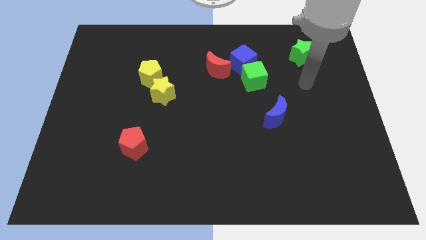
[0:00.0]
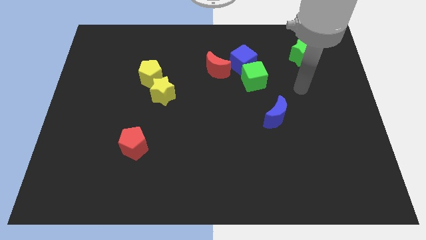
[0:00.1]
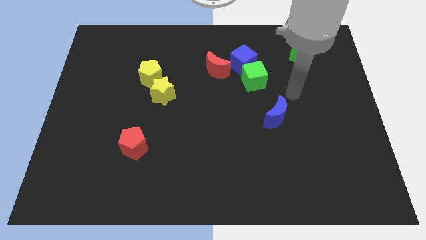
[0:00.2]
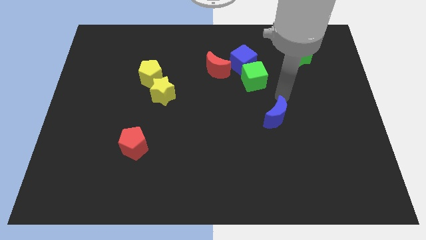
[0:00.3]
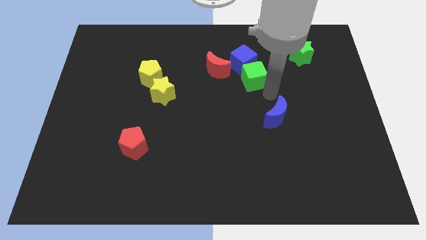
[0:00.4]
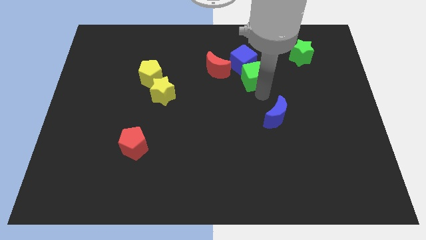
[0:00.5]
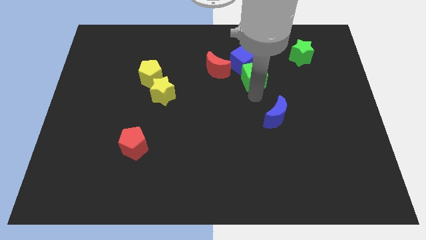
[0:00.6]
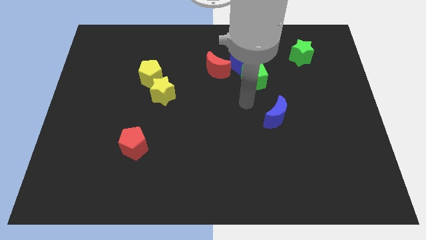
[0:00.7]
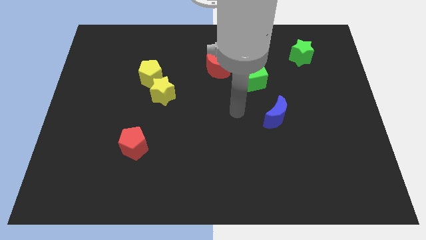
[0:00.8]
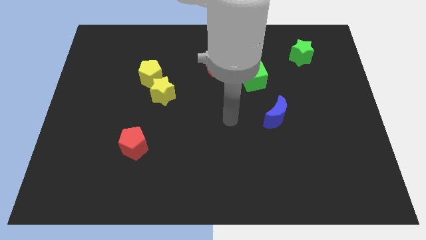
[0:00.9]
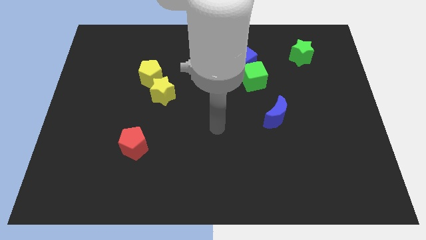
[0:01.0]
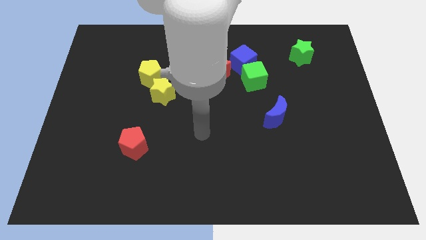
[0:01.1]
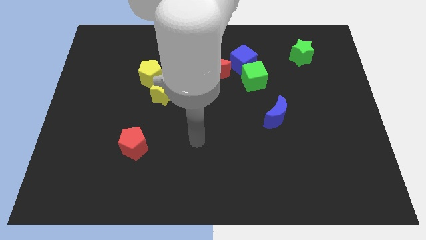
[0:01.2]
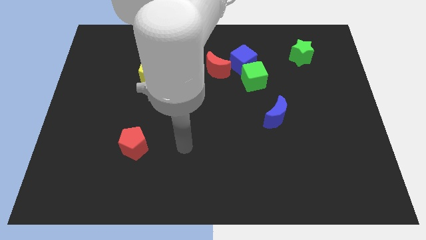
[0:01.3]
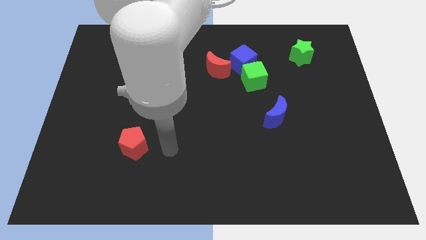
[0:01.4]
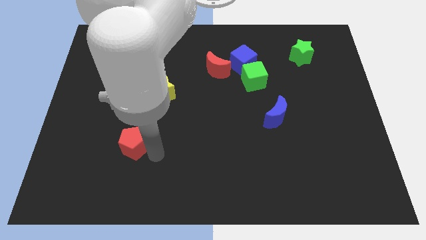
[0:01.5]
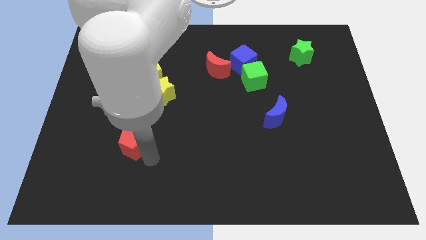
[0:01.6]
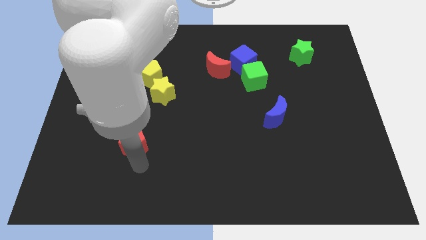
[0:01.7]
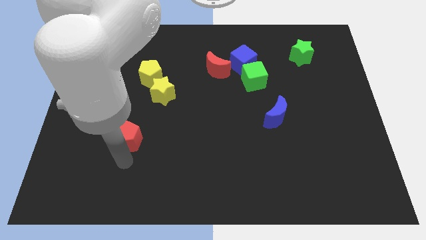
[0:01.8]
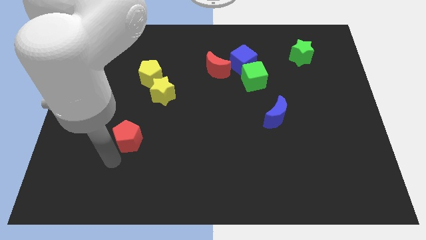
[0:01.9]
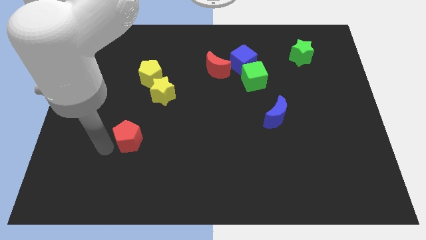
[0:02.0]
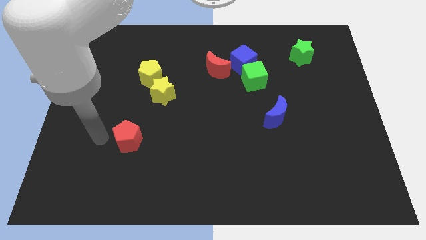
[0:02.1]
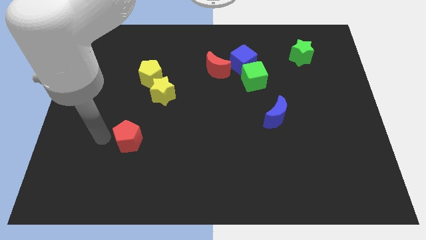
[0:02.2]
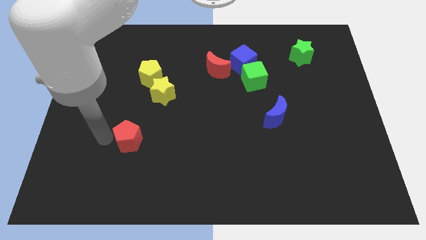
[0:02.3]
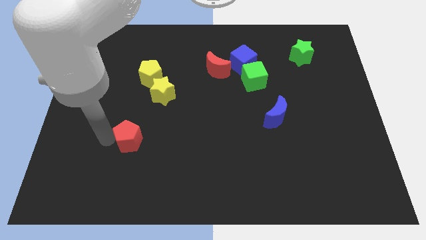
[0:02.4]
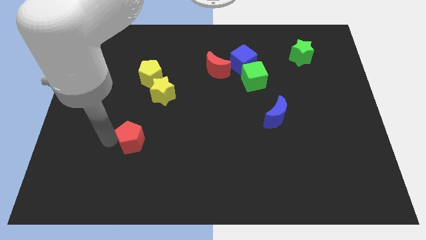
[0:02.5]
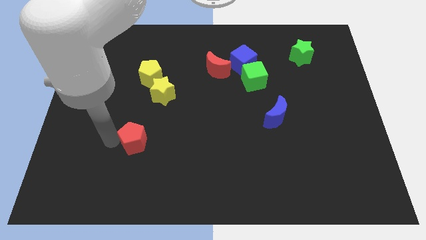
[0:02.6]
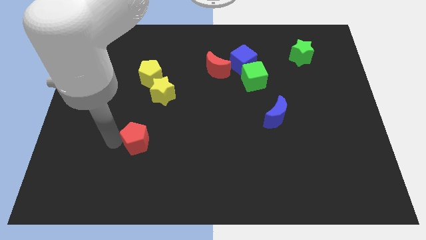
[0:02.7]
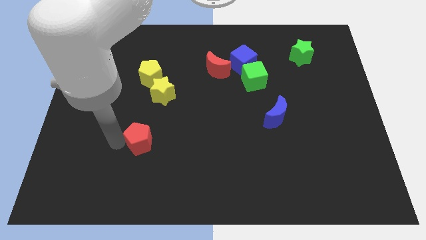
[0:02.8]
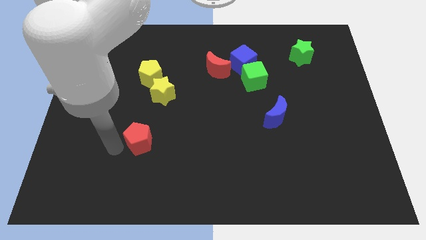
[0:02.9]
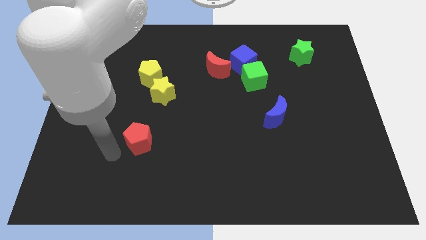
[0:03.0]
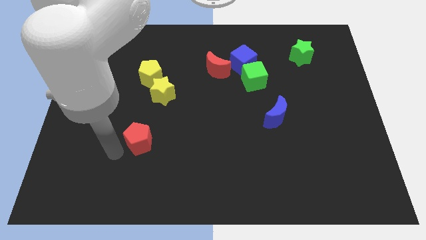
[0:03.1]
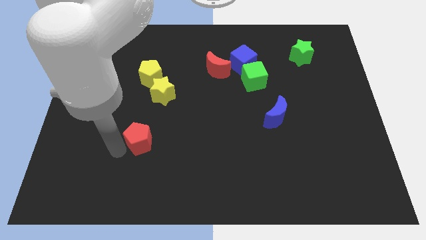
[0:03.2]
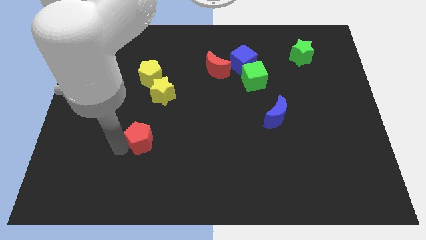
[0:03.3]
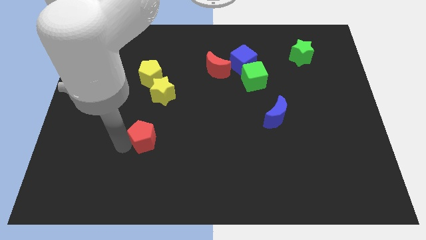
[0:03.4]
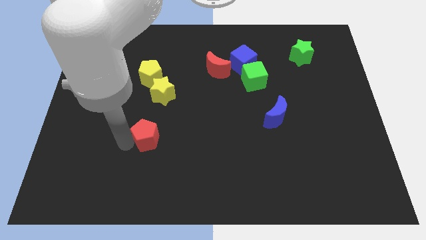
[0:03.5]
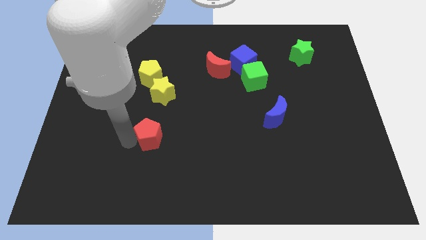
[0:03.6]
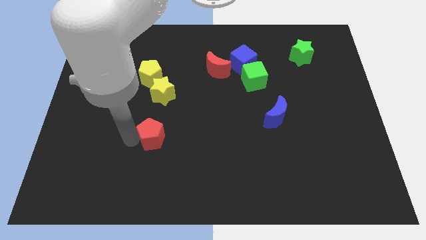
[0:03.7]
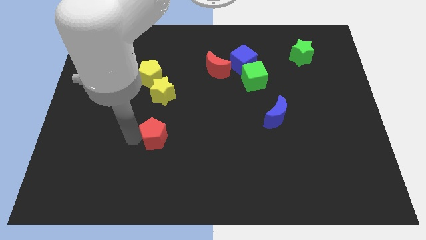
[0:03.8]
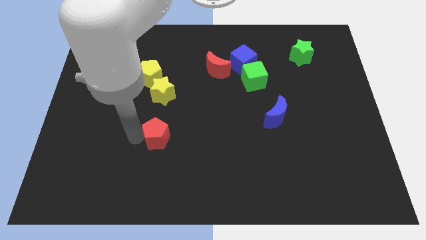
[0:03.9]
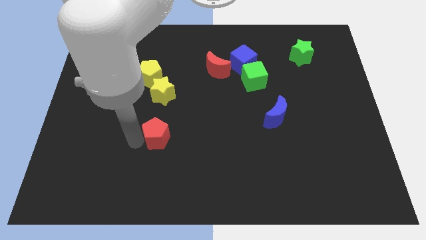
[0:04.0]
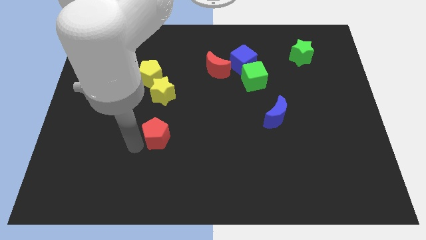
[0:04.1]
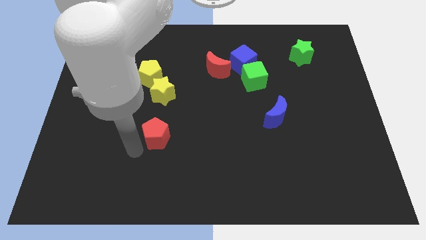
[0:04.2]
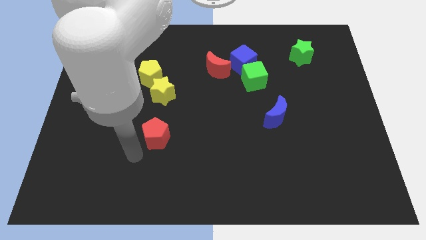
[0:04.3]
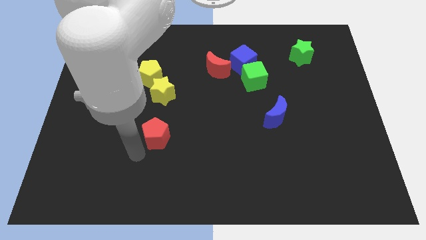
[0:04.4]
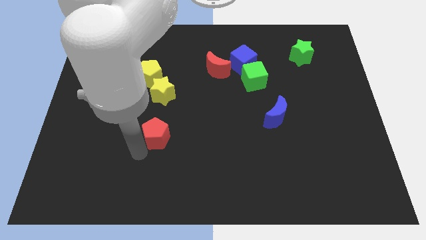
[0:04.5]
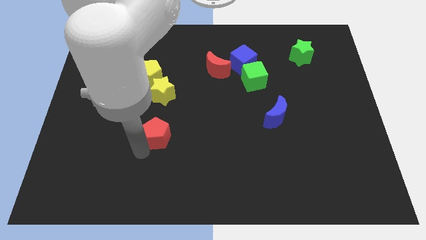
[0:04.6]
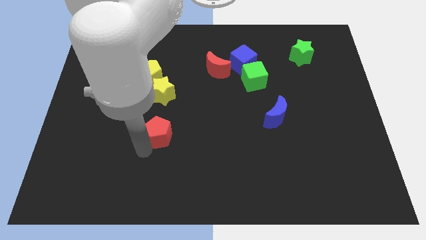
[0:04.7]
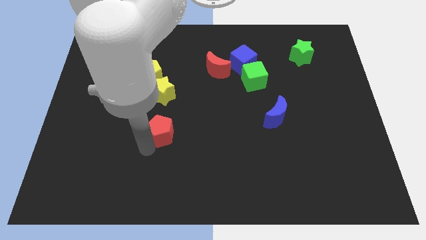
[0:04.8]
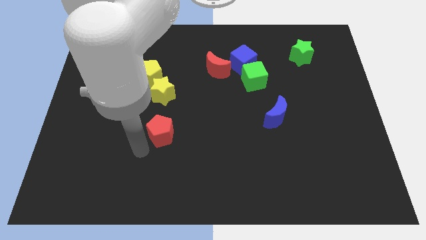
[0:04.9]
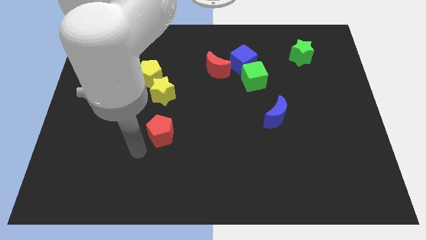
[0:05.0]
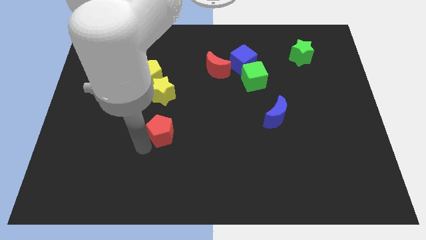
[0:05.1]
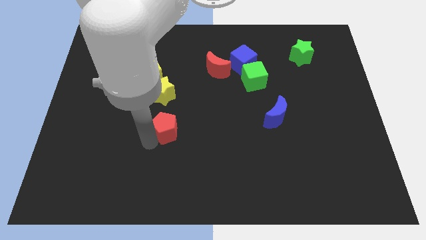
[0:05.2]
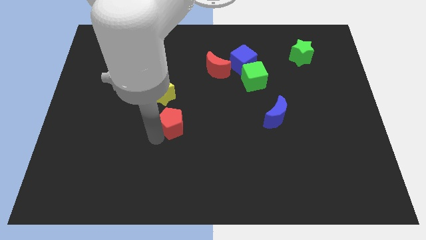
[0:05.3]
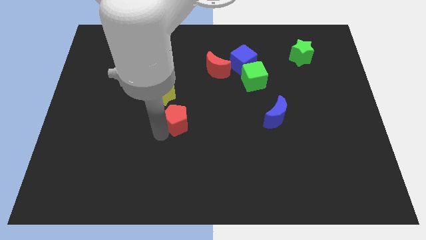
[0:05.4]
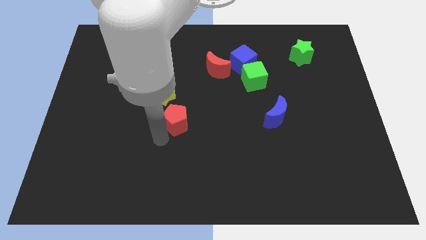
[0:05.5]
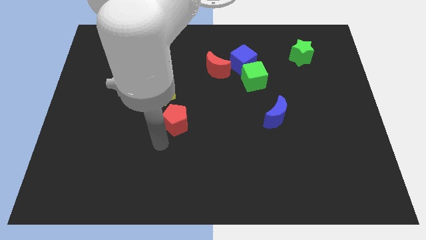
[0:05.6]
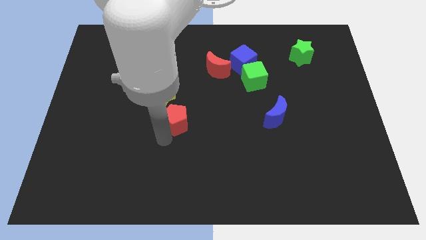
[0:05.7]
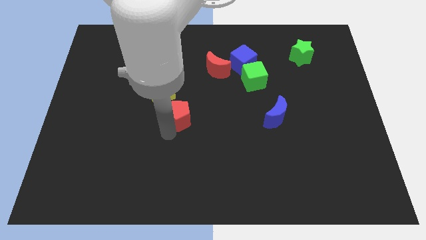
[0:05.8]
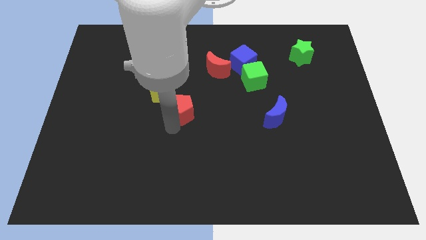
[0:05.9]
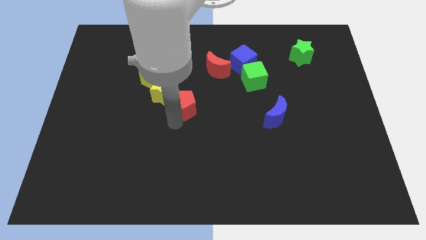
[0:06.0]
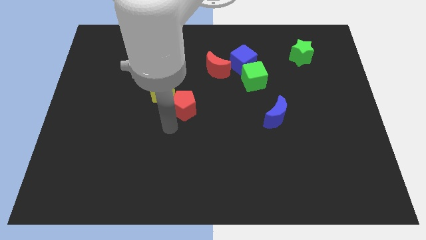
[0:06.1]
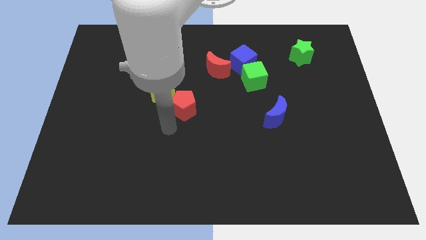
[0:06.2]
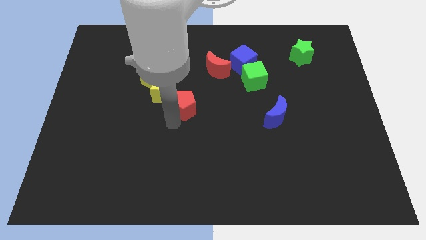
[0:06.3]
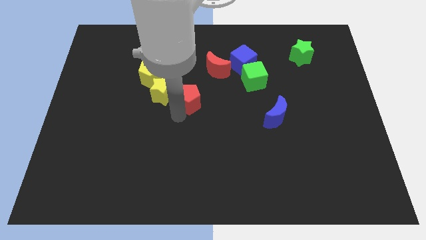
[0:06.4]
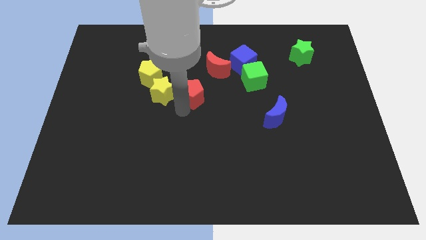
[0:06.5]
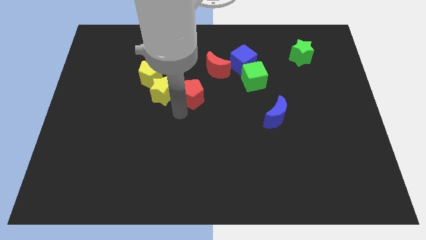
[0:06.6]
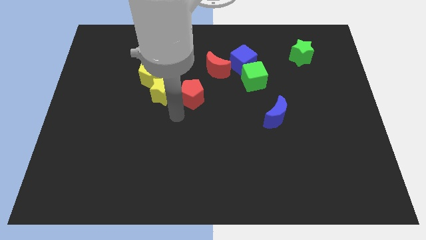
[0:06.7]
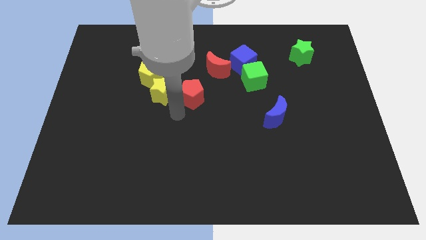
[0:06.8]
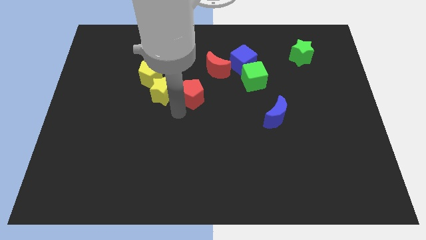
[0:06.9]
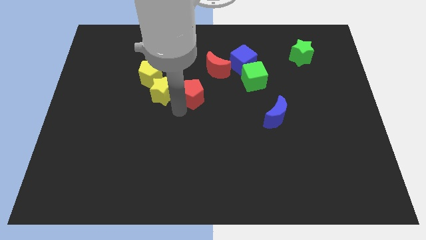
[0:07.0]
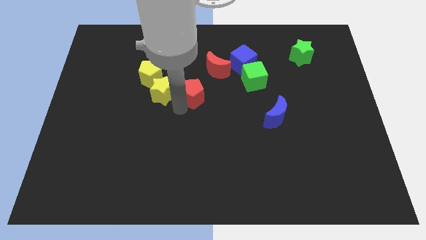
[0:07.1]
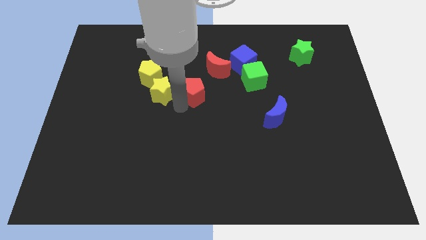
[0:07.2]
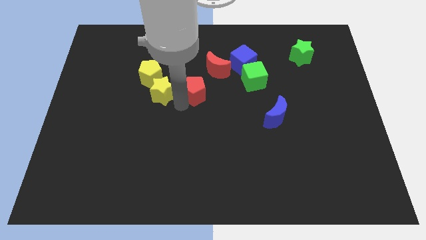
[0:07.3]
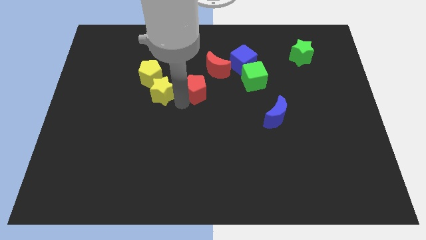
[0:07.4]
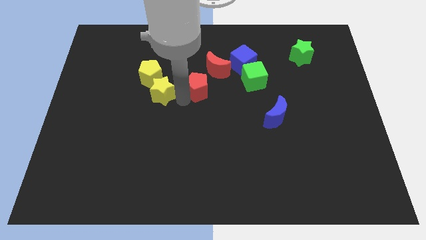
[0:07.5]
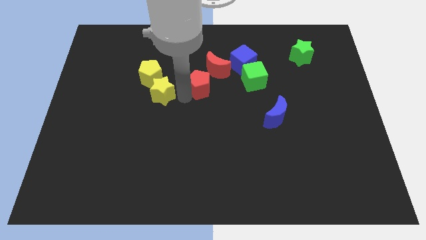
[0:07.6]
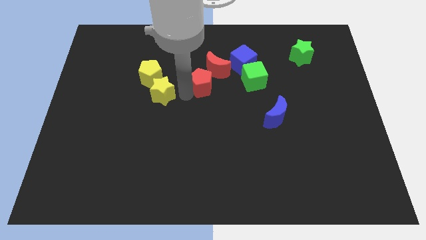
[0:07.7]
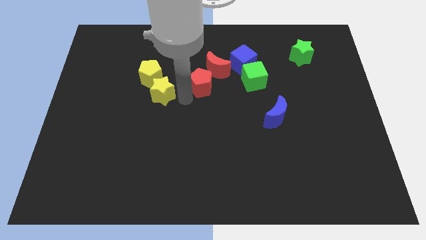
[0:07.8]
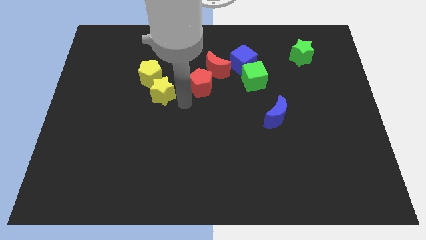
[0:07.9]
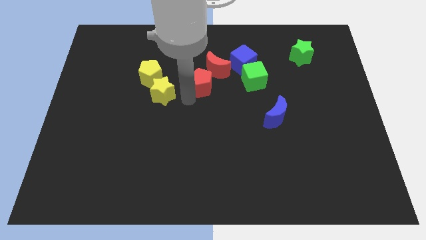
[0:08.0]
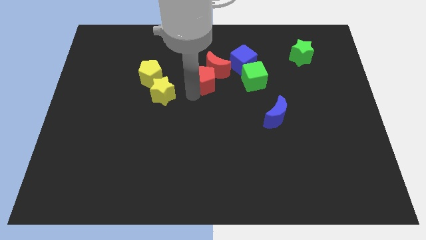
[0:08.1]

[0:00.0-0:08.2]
slide the red pentagon close to the red moon
